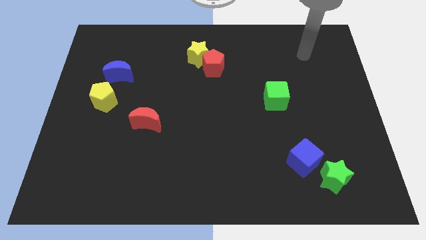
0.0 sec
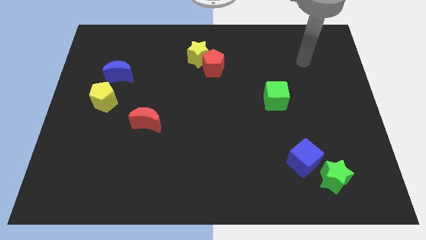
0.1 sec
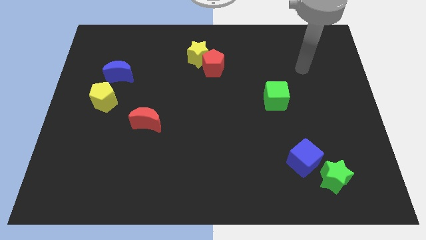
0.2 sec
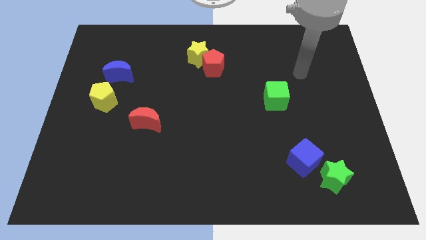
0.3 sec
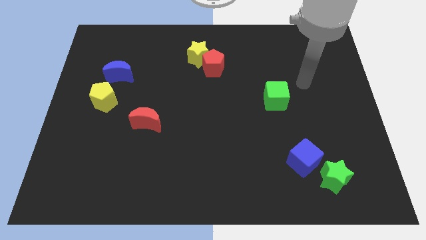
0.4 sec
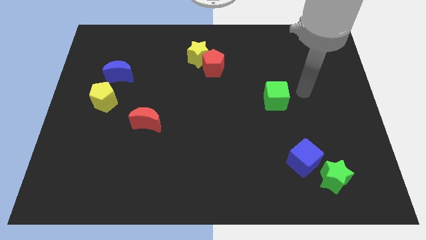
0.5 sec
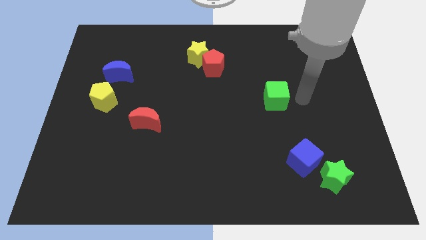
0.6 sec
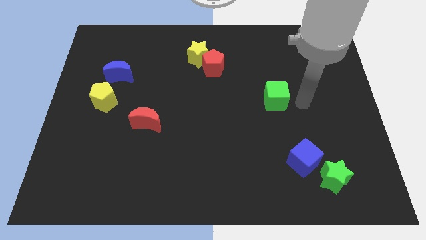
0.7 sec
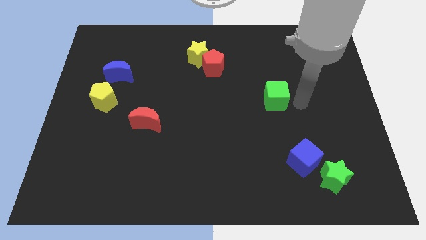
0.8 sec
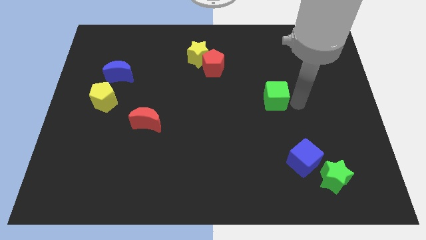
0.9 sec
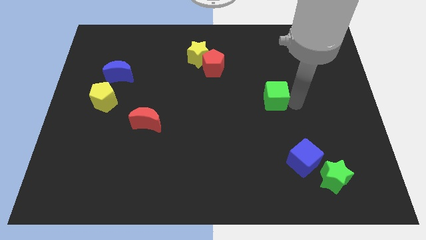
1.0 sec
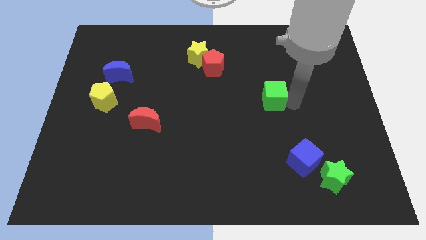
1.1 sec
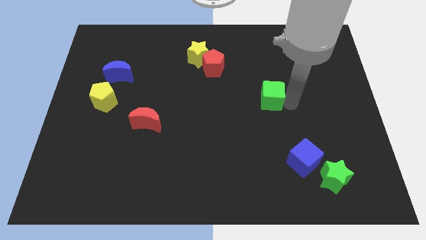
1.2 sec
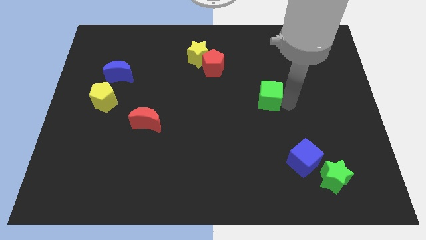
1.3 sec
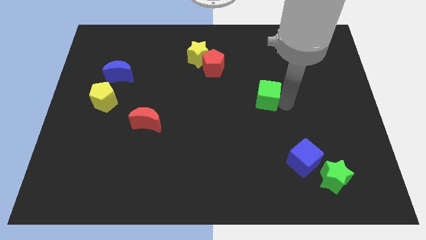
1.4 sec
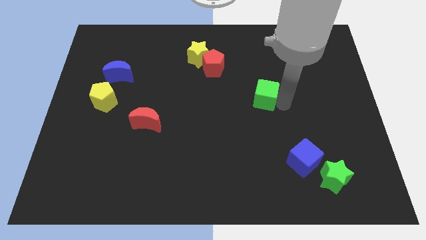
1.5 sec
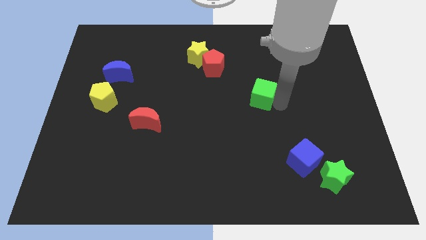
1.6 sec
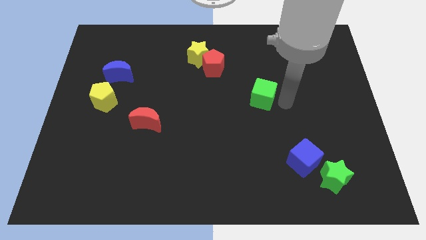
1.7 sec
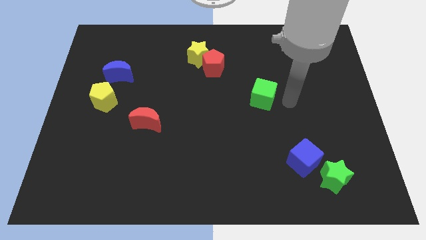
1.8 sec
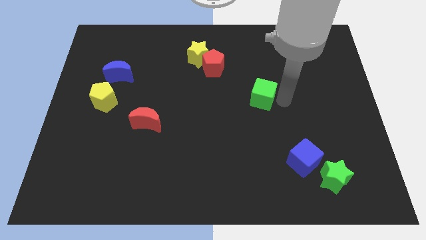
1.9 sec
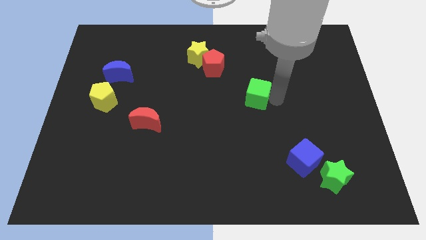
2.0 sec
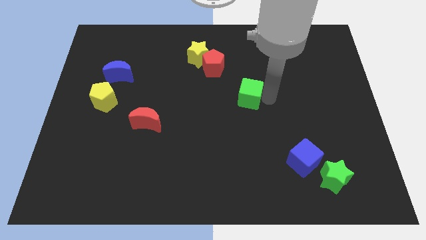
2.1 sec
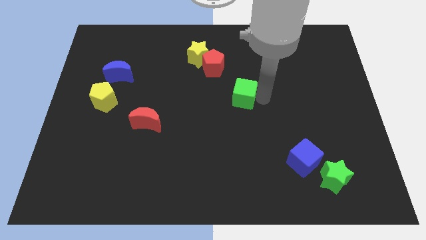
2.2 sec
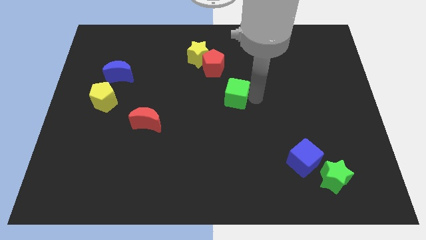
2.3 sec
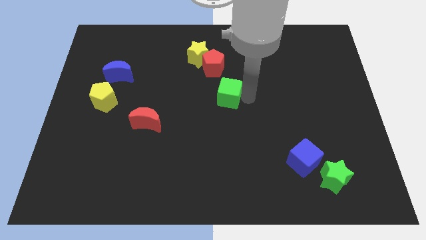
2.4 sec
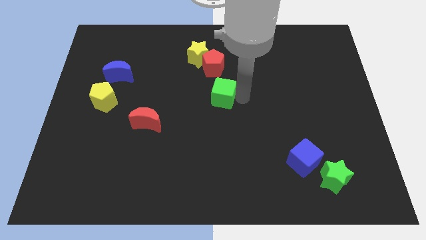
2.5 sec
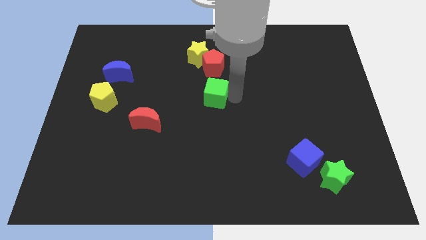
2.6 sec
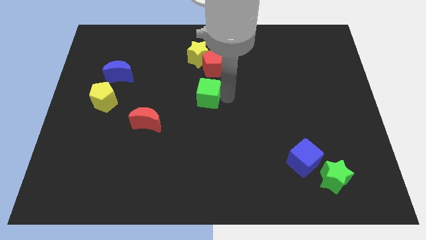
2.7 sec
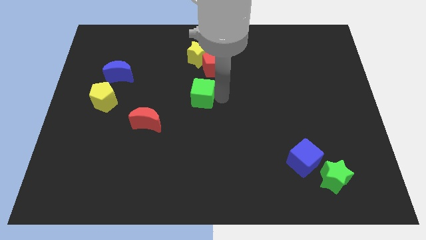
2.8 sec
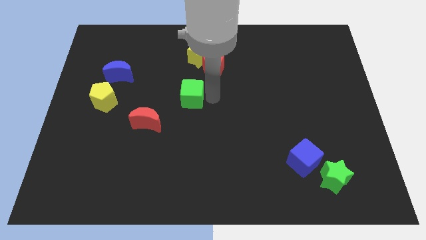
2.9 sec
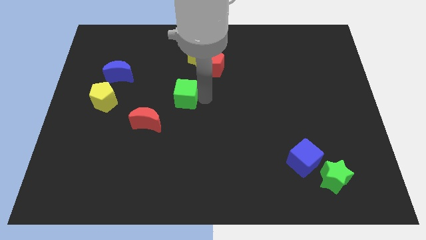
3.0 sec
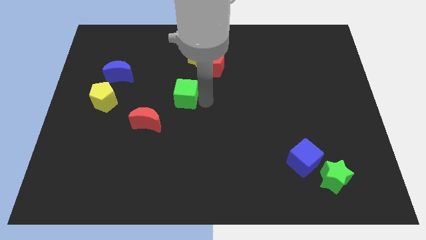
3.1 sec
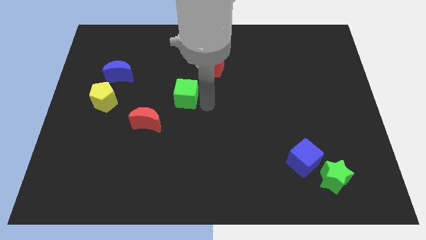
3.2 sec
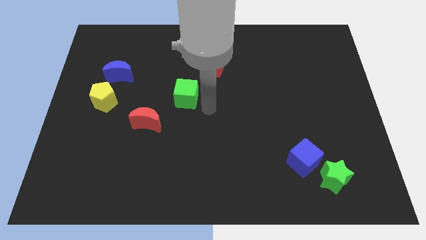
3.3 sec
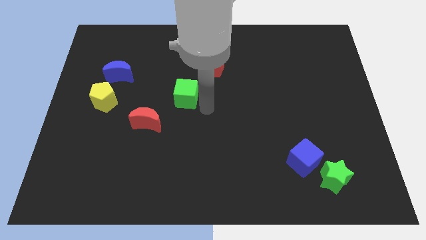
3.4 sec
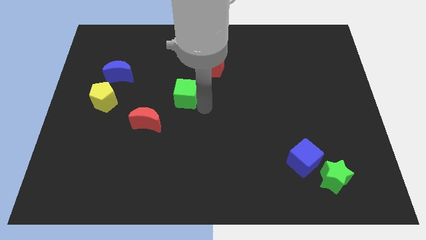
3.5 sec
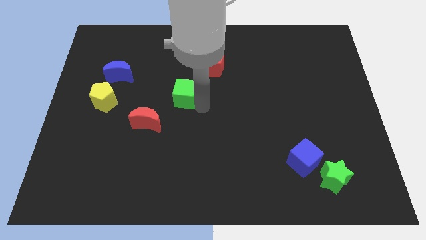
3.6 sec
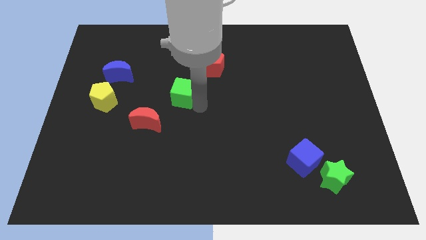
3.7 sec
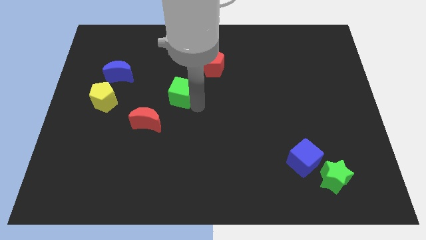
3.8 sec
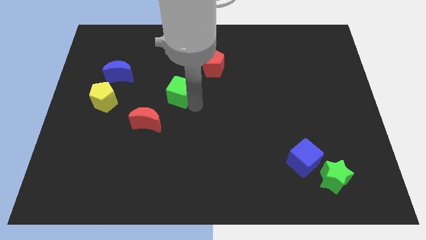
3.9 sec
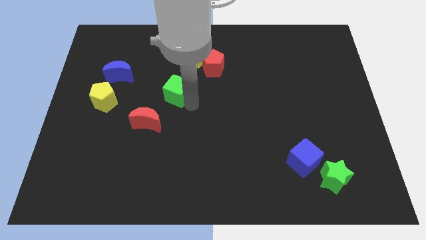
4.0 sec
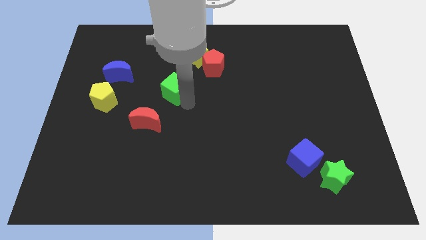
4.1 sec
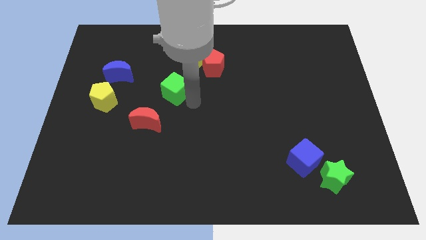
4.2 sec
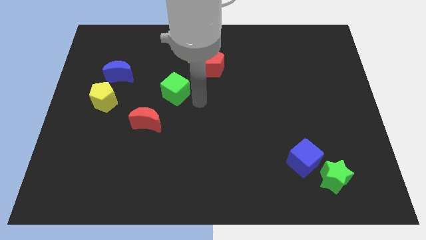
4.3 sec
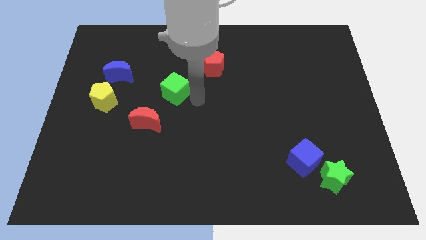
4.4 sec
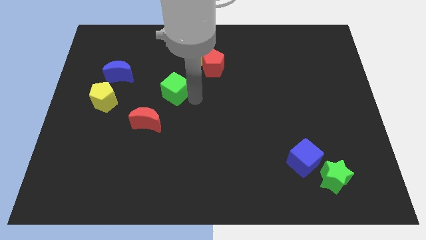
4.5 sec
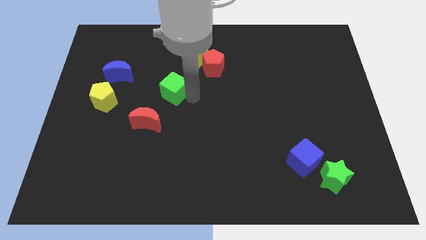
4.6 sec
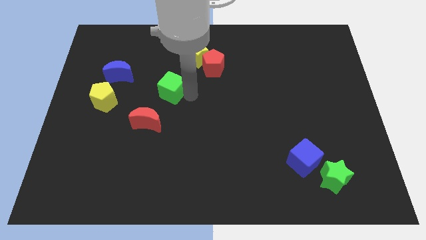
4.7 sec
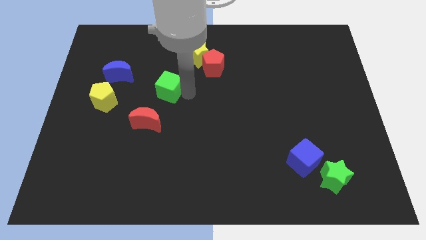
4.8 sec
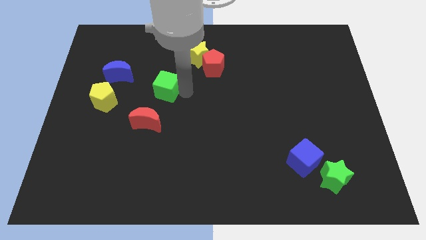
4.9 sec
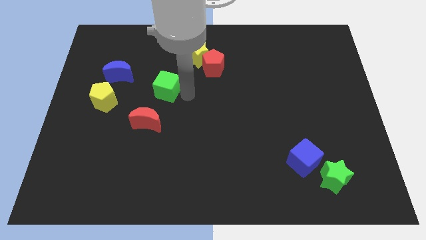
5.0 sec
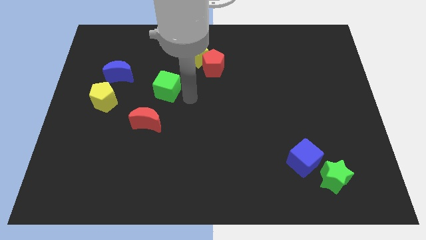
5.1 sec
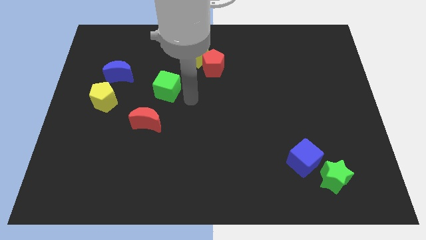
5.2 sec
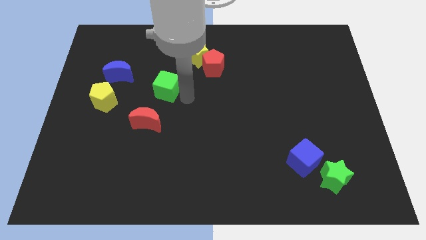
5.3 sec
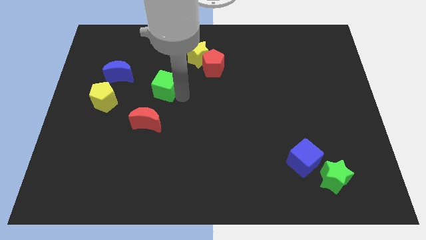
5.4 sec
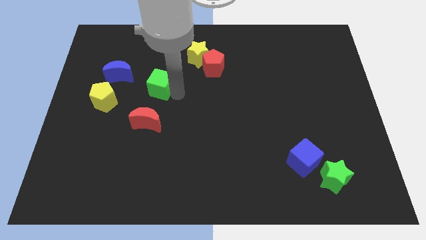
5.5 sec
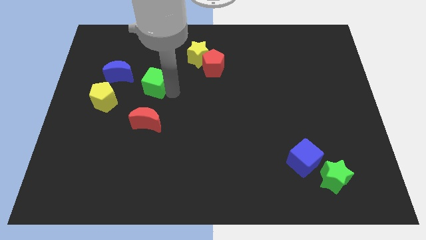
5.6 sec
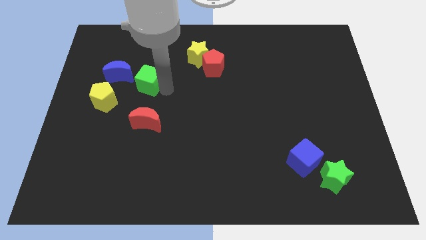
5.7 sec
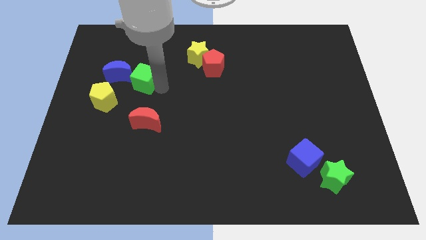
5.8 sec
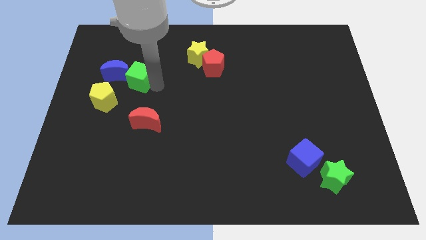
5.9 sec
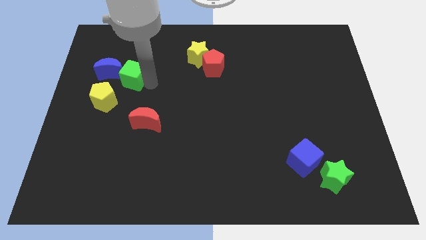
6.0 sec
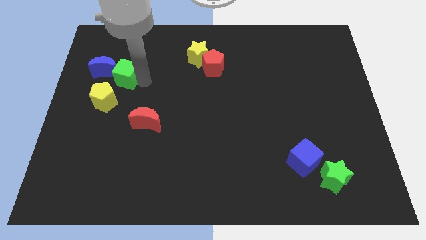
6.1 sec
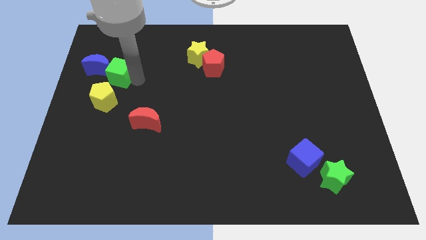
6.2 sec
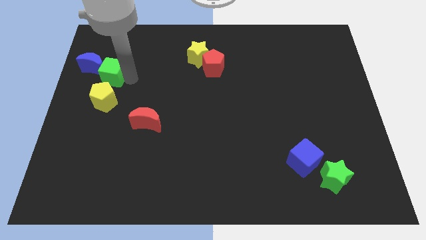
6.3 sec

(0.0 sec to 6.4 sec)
slide the green cube to the blue moon

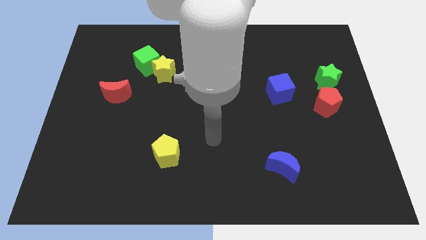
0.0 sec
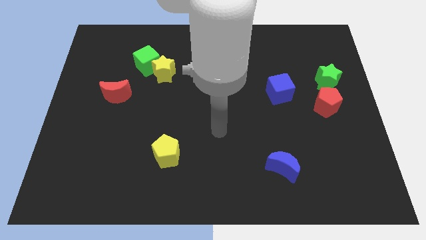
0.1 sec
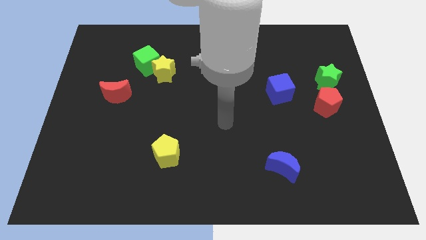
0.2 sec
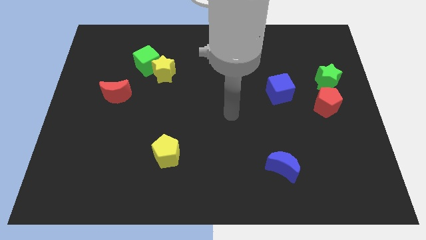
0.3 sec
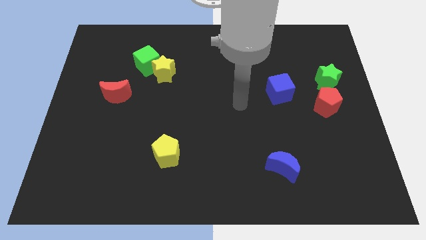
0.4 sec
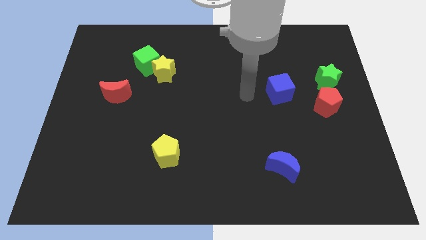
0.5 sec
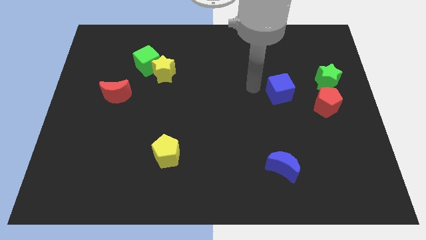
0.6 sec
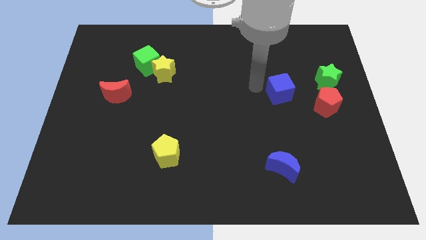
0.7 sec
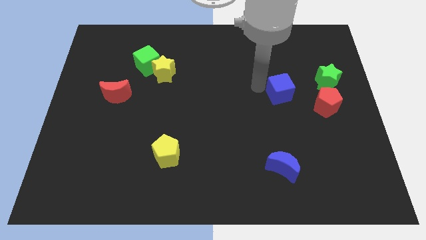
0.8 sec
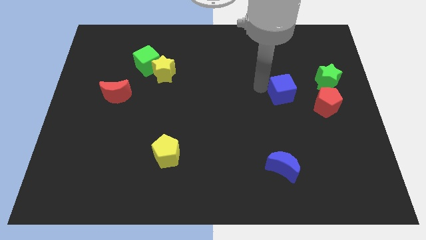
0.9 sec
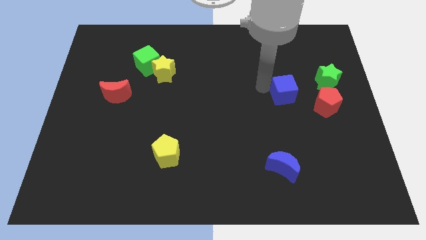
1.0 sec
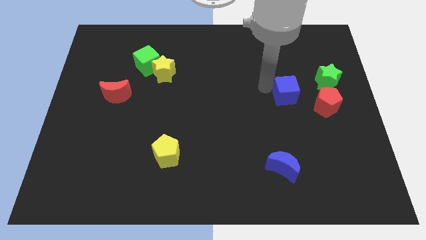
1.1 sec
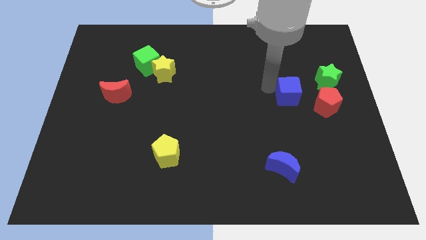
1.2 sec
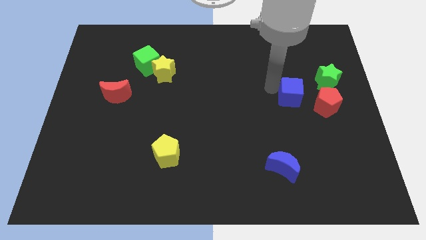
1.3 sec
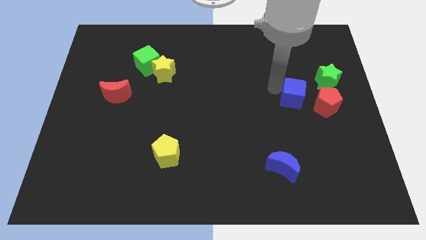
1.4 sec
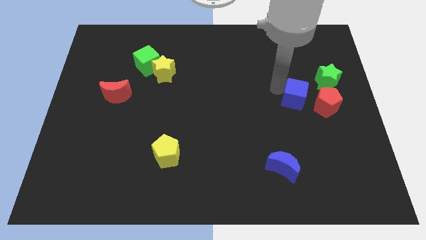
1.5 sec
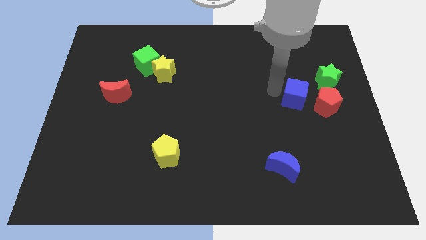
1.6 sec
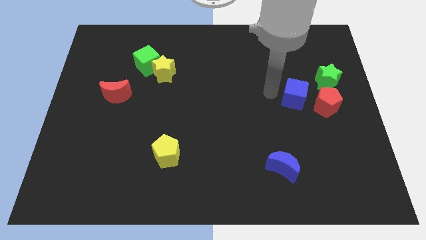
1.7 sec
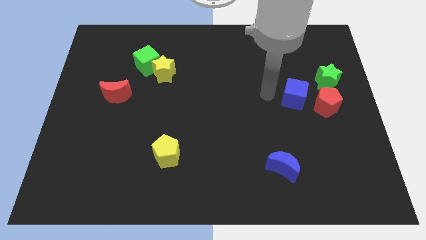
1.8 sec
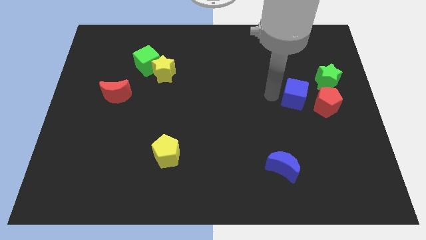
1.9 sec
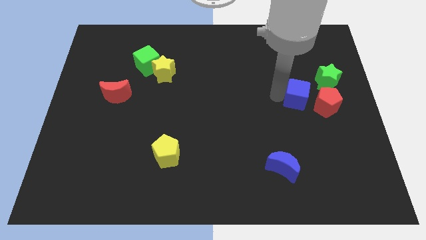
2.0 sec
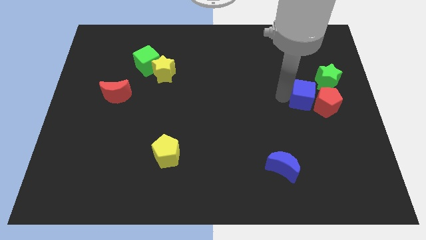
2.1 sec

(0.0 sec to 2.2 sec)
slide the blue cube towards the red pentagon
